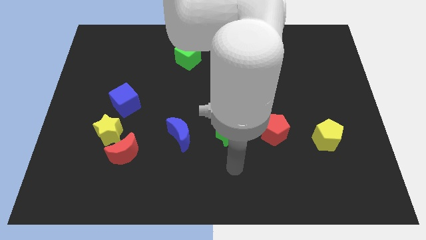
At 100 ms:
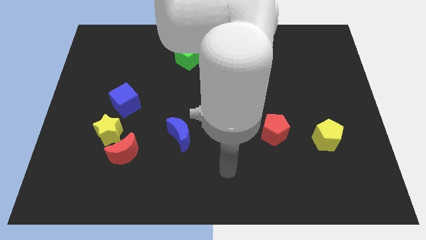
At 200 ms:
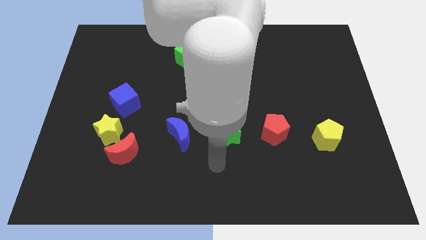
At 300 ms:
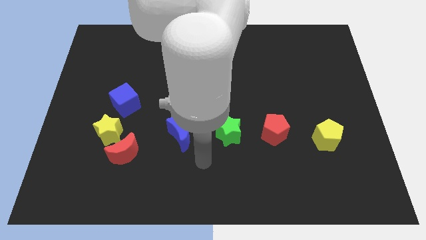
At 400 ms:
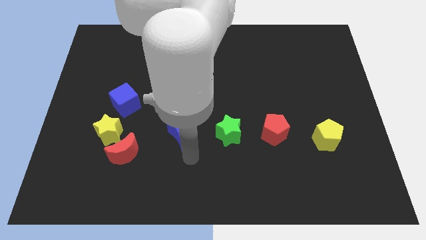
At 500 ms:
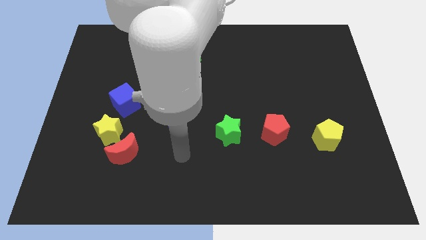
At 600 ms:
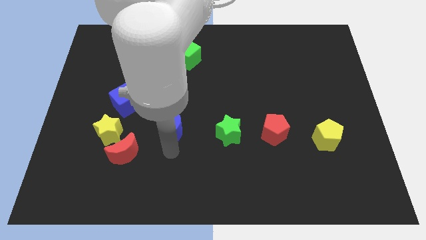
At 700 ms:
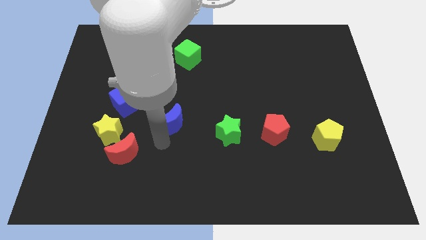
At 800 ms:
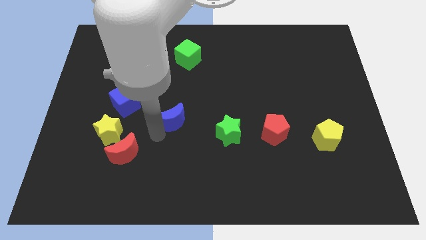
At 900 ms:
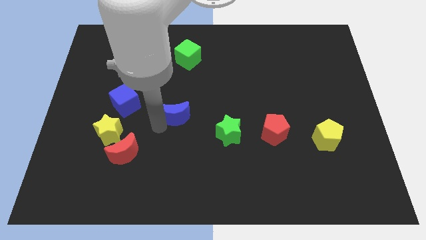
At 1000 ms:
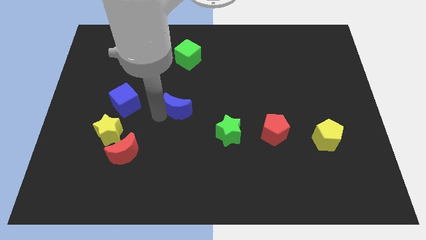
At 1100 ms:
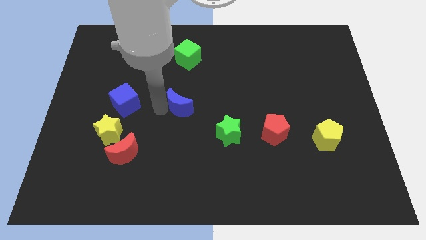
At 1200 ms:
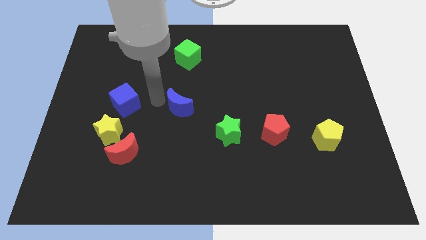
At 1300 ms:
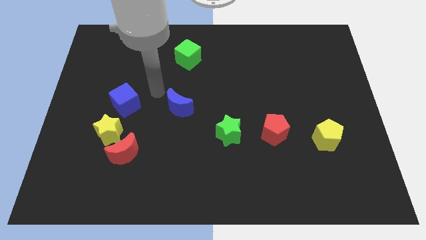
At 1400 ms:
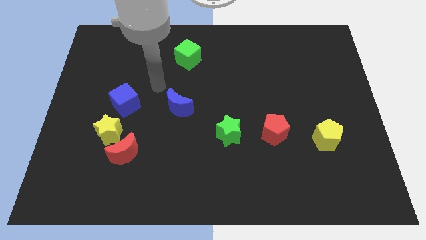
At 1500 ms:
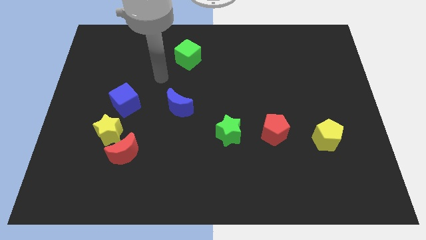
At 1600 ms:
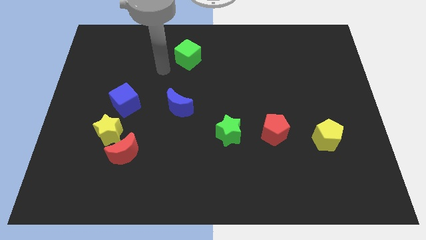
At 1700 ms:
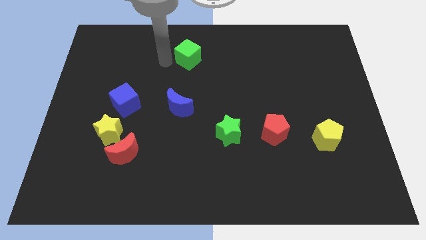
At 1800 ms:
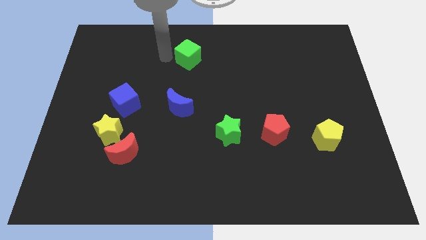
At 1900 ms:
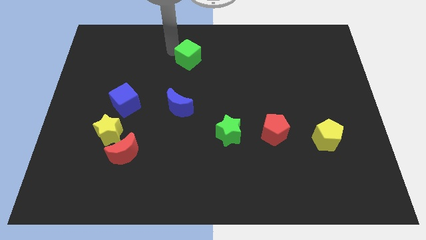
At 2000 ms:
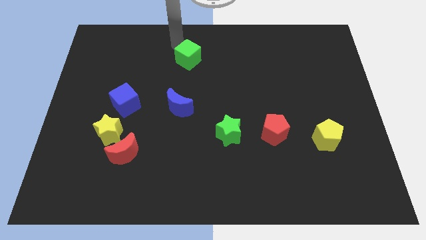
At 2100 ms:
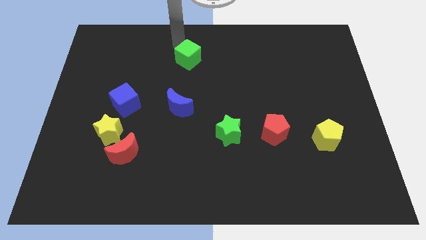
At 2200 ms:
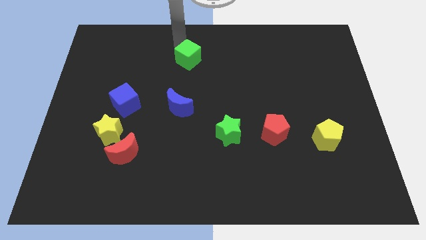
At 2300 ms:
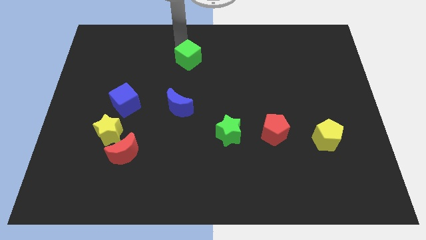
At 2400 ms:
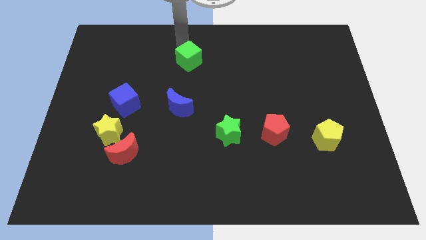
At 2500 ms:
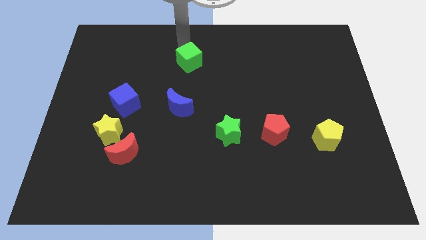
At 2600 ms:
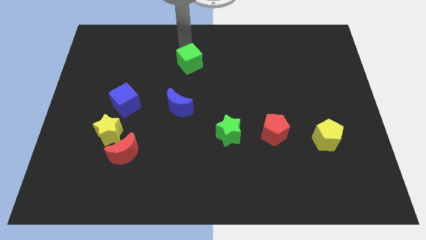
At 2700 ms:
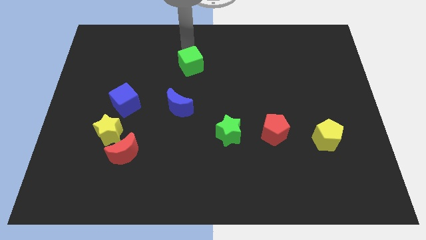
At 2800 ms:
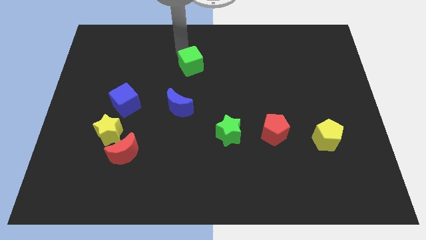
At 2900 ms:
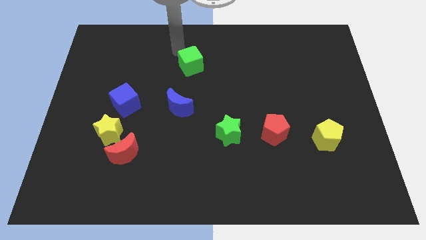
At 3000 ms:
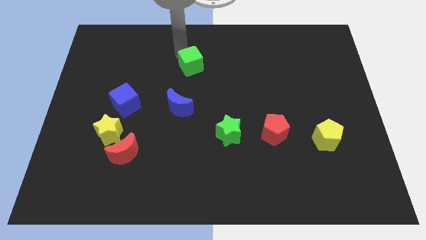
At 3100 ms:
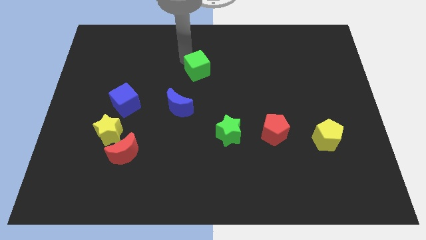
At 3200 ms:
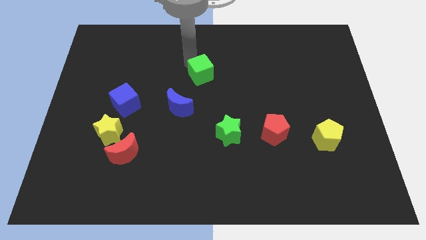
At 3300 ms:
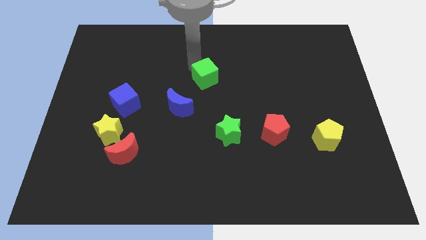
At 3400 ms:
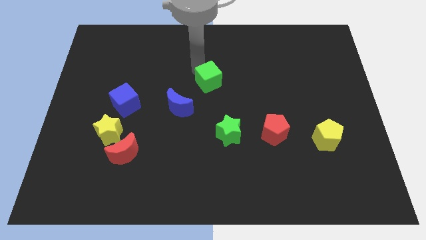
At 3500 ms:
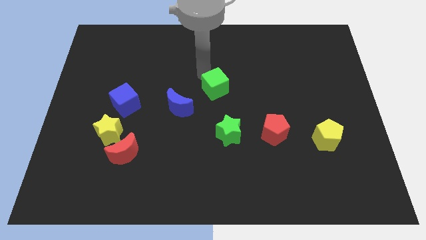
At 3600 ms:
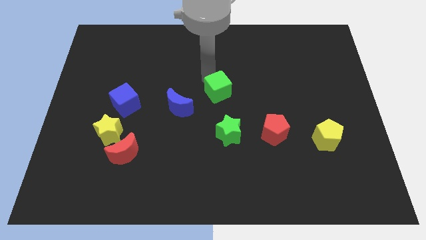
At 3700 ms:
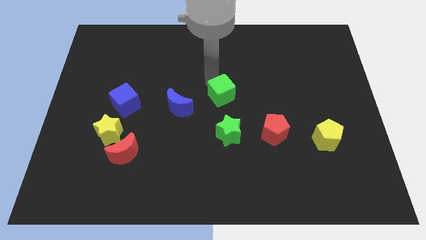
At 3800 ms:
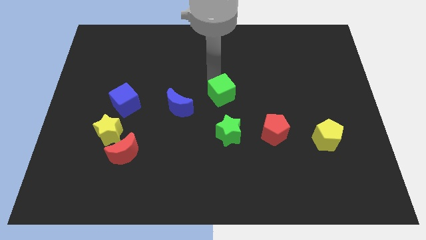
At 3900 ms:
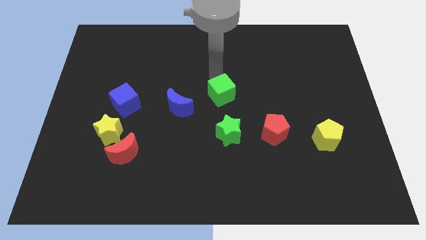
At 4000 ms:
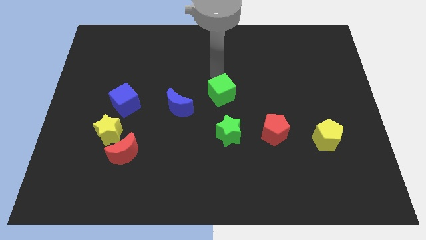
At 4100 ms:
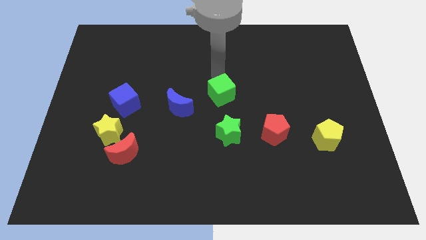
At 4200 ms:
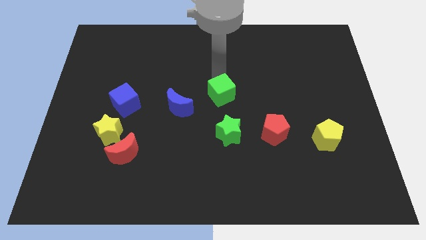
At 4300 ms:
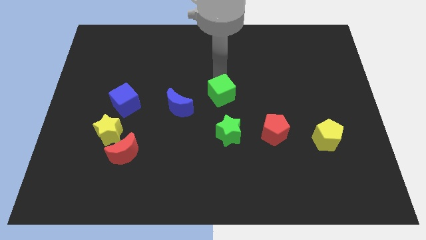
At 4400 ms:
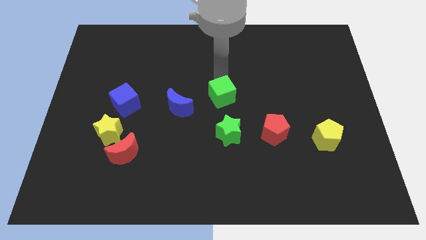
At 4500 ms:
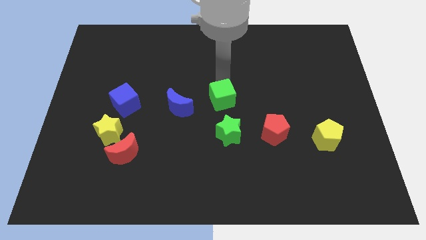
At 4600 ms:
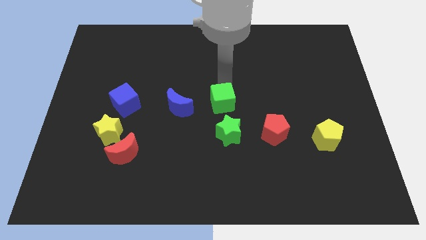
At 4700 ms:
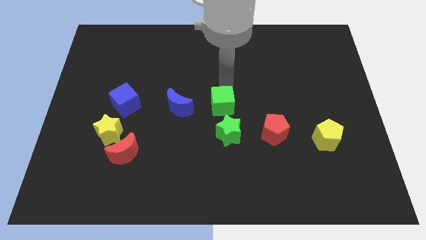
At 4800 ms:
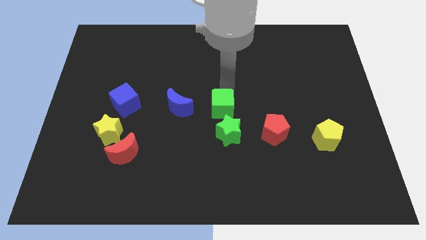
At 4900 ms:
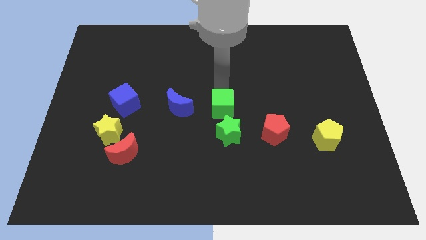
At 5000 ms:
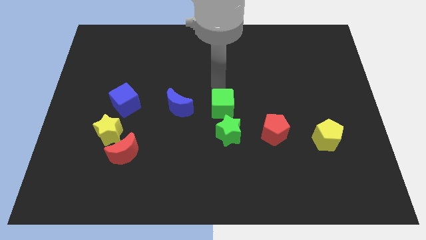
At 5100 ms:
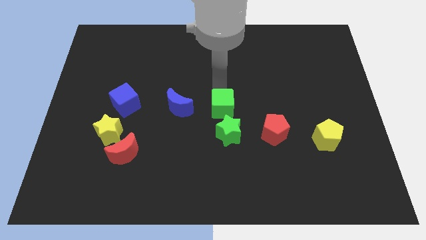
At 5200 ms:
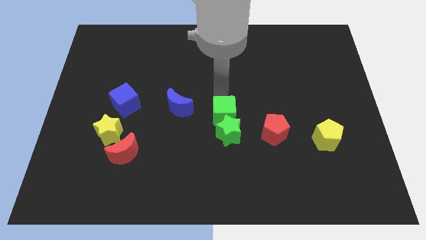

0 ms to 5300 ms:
slide the green cube next to the green star

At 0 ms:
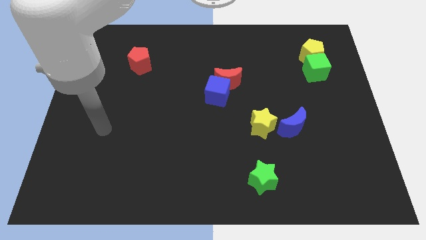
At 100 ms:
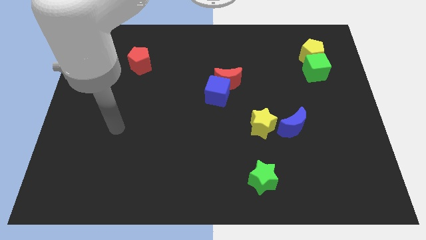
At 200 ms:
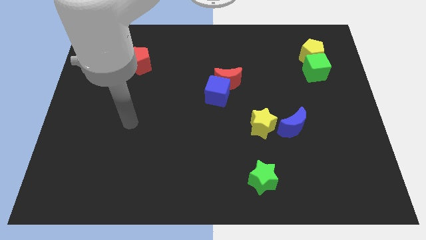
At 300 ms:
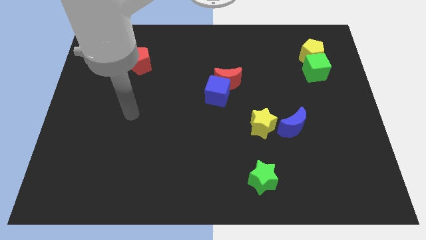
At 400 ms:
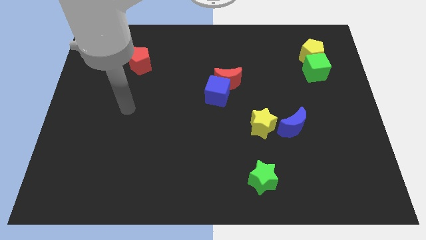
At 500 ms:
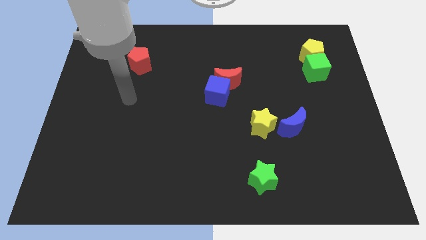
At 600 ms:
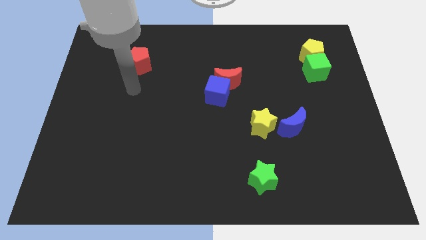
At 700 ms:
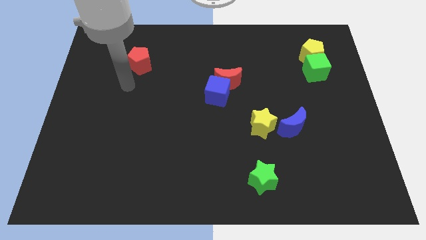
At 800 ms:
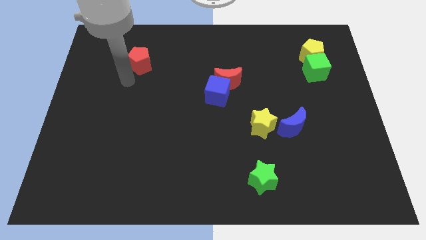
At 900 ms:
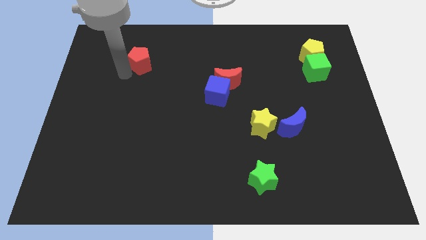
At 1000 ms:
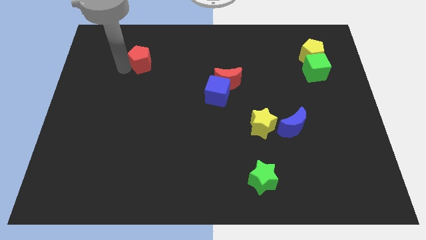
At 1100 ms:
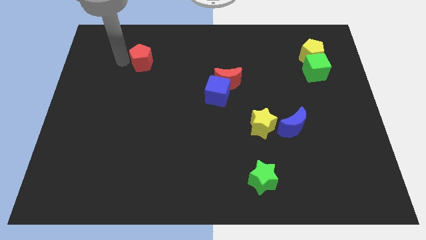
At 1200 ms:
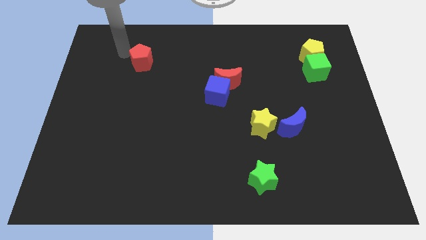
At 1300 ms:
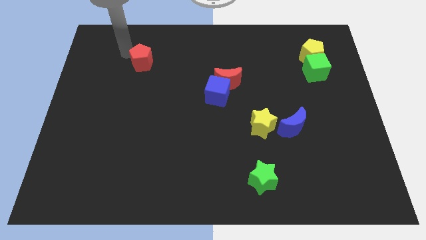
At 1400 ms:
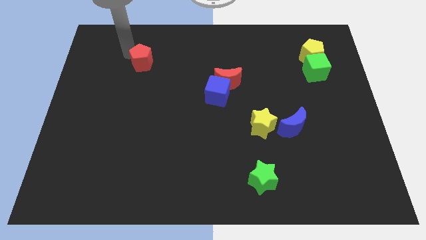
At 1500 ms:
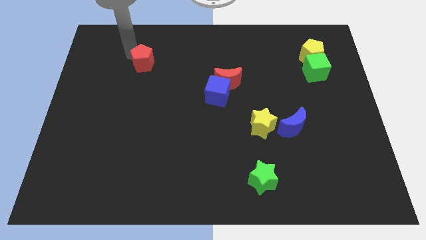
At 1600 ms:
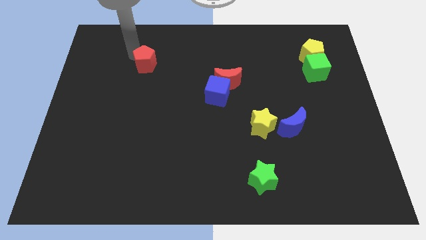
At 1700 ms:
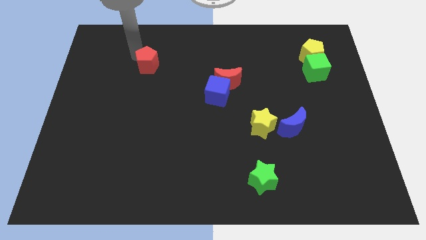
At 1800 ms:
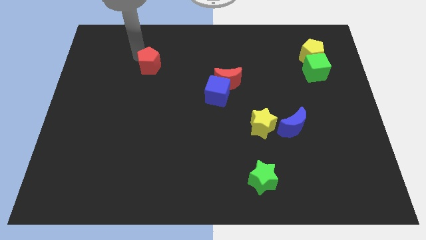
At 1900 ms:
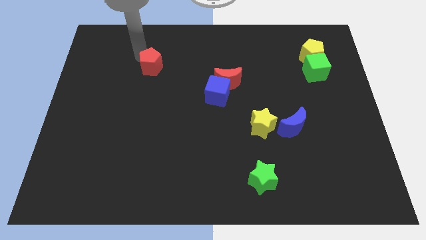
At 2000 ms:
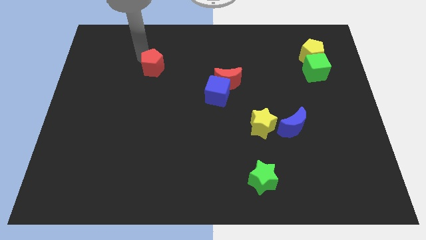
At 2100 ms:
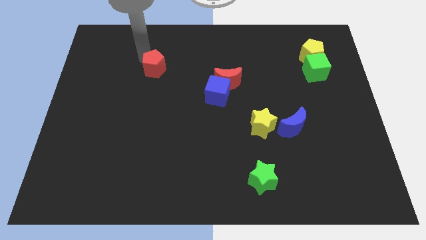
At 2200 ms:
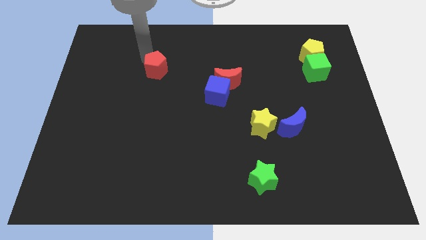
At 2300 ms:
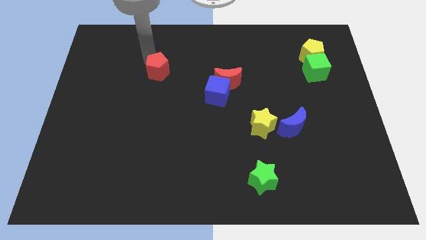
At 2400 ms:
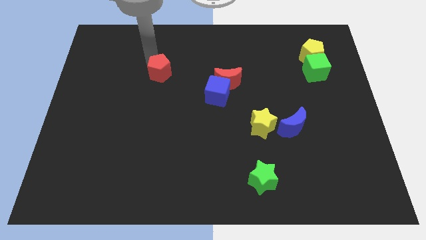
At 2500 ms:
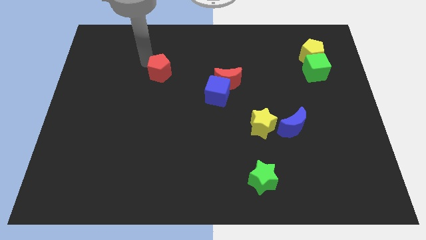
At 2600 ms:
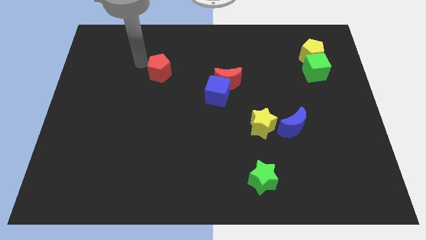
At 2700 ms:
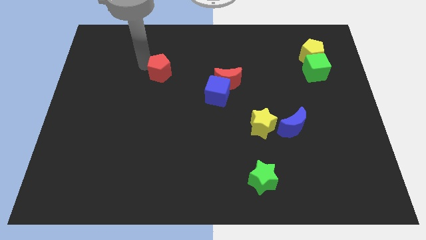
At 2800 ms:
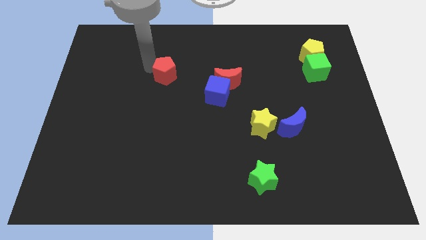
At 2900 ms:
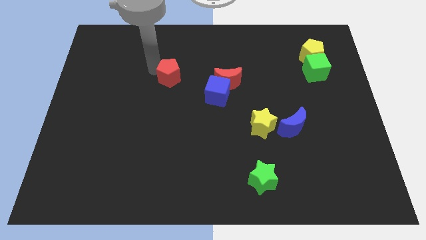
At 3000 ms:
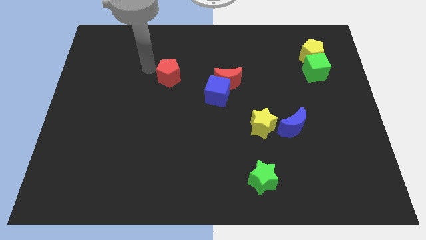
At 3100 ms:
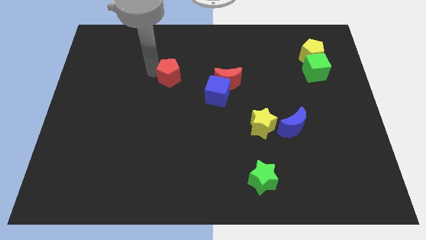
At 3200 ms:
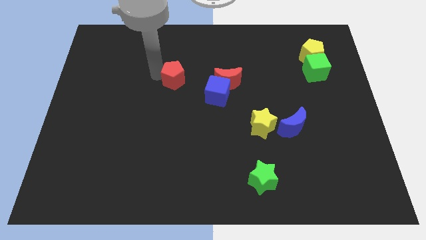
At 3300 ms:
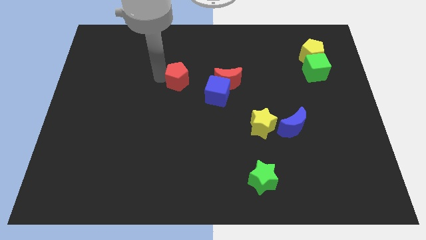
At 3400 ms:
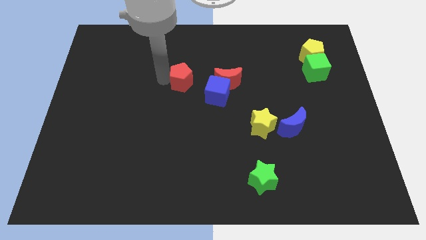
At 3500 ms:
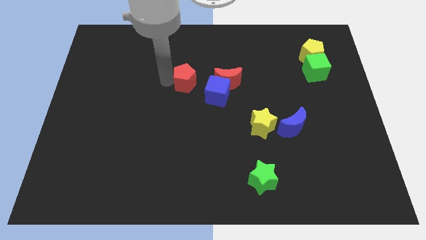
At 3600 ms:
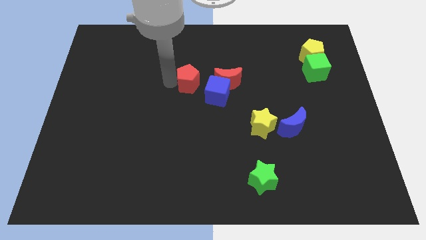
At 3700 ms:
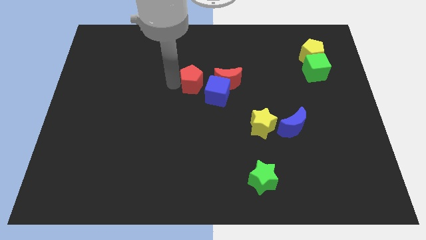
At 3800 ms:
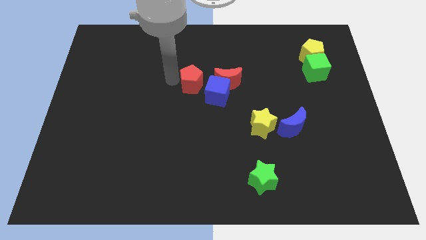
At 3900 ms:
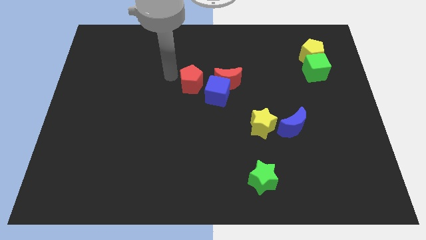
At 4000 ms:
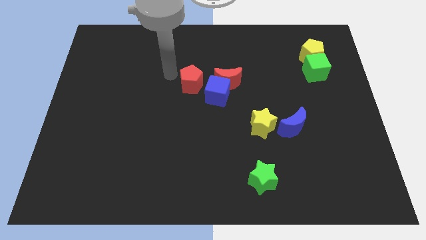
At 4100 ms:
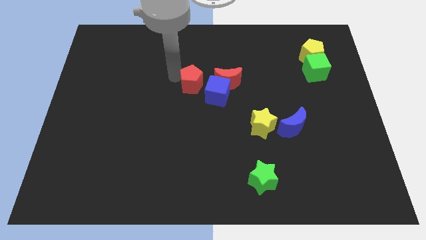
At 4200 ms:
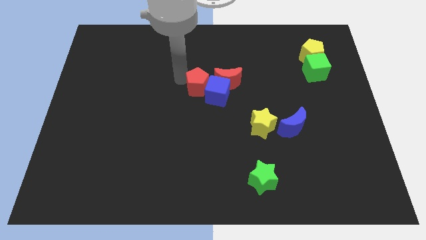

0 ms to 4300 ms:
put the red pentagon close to the blue cube
